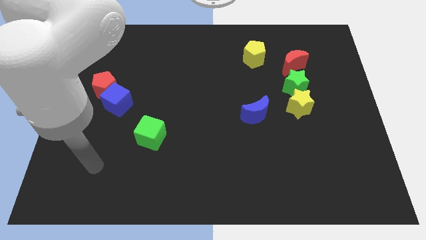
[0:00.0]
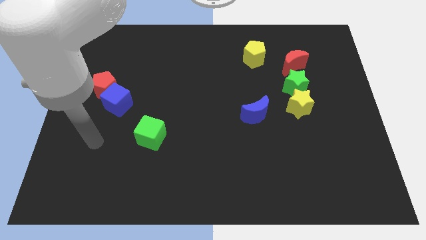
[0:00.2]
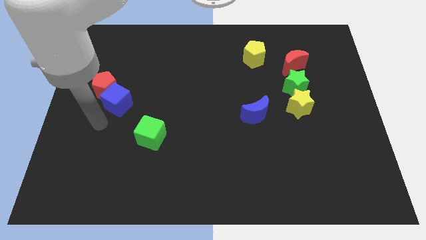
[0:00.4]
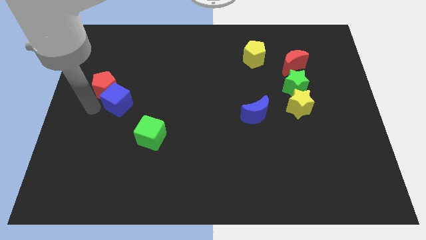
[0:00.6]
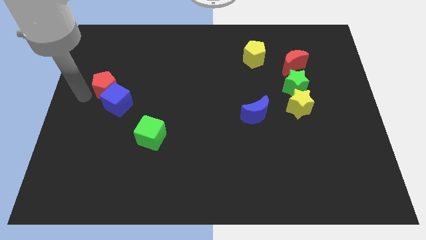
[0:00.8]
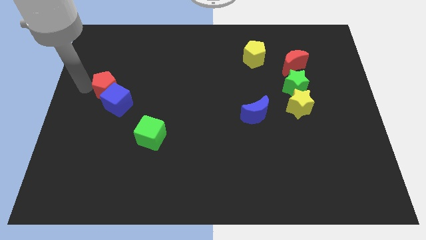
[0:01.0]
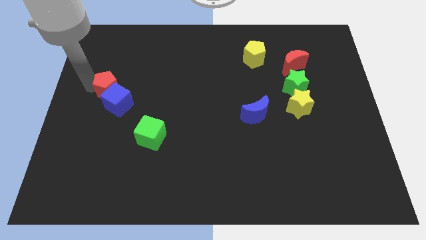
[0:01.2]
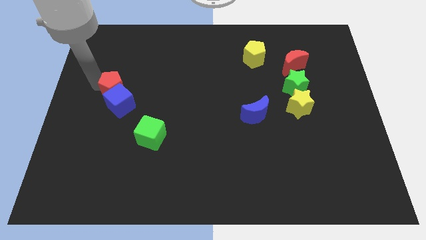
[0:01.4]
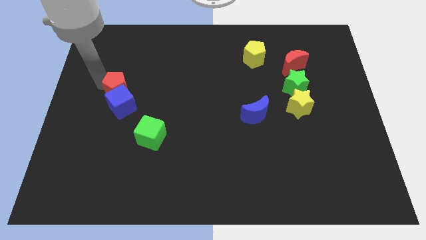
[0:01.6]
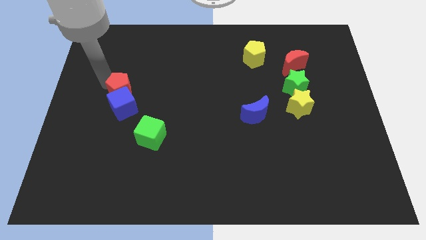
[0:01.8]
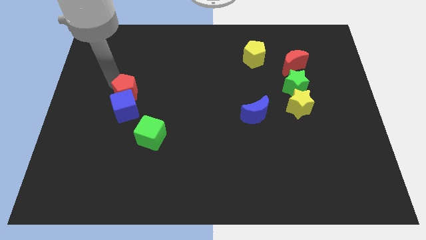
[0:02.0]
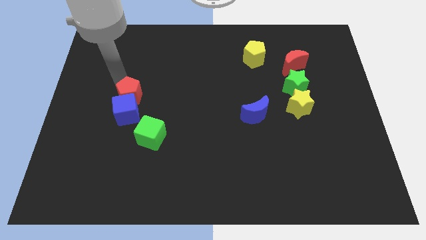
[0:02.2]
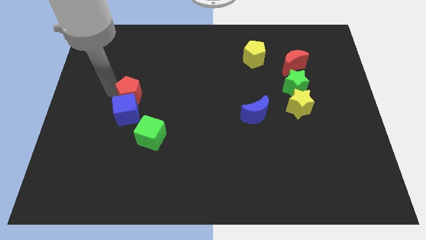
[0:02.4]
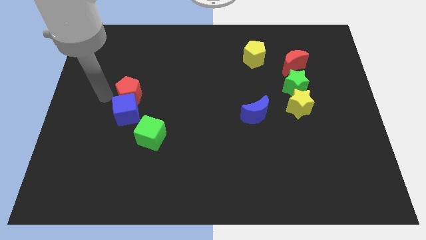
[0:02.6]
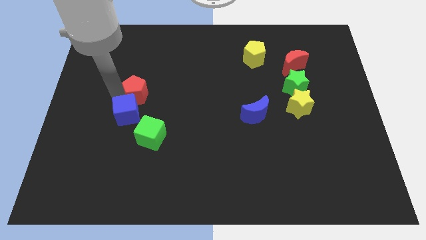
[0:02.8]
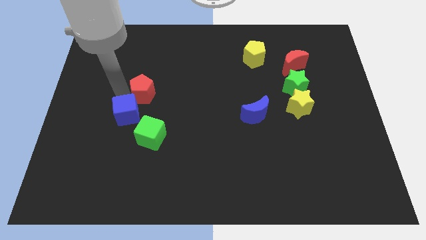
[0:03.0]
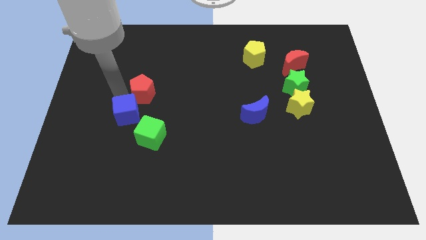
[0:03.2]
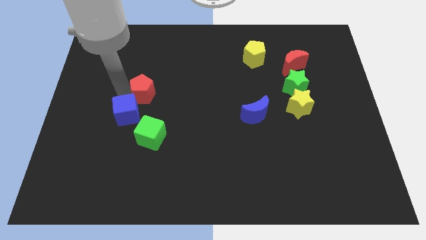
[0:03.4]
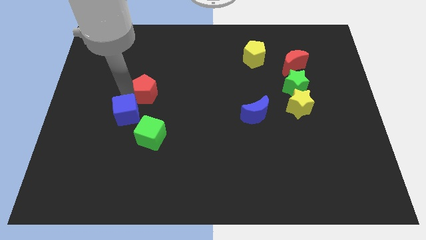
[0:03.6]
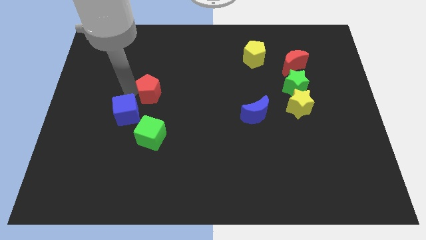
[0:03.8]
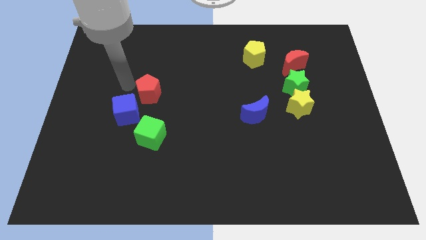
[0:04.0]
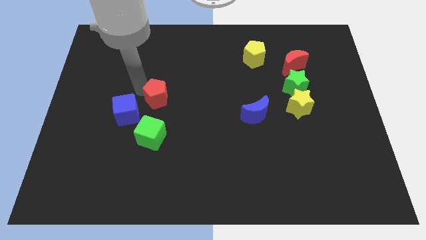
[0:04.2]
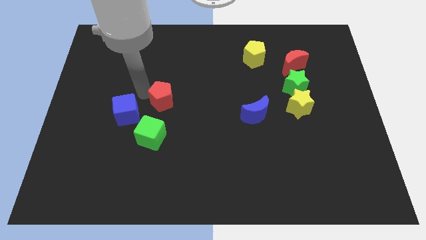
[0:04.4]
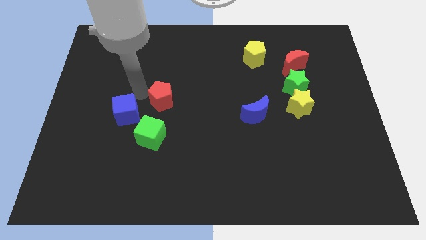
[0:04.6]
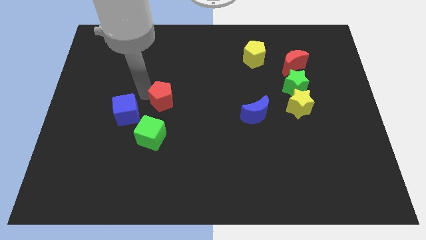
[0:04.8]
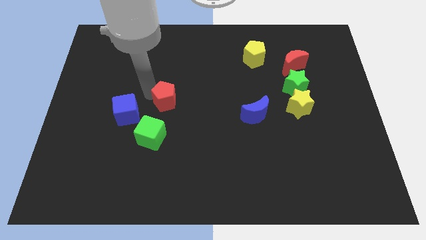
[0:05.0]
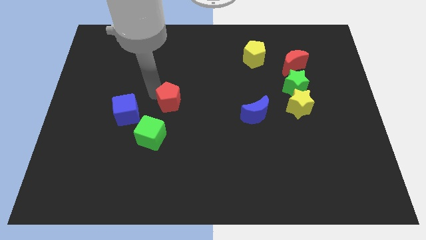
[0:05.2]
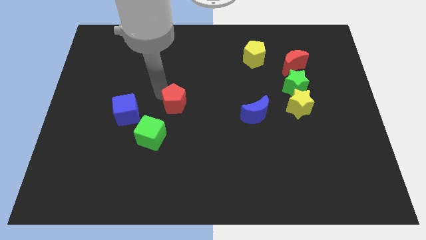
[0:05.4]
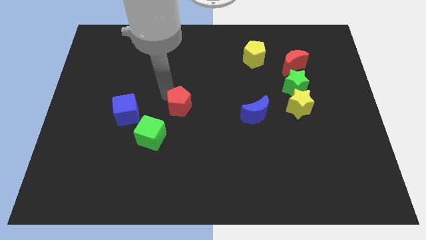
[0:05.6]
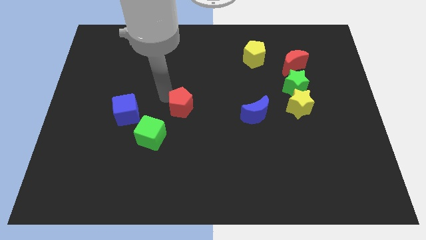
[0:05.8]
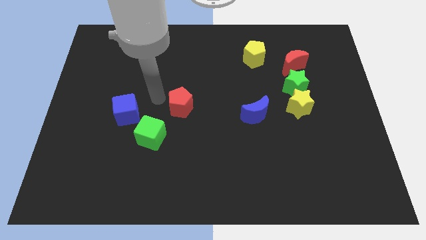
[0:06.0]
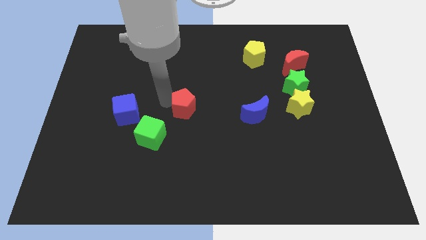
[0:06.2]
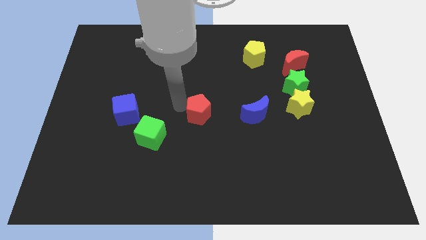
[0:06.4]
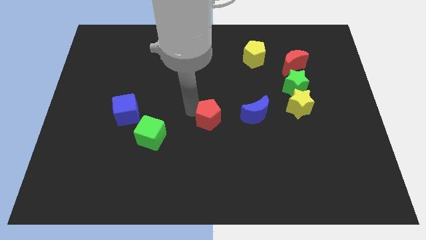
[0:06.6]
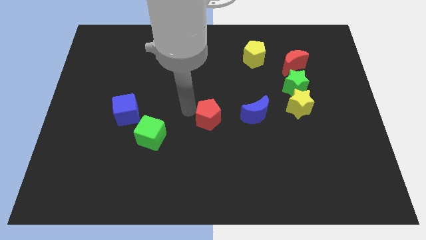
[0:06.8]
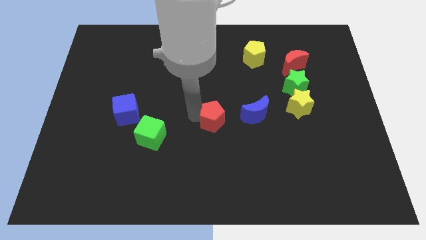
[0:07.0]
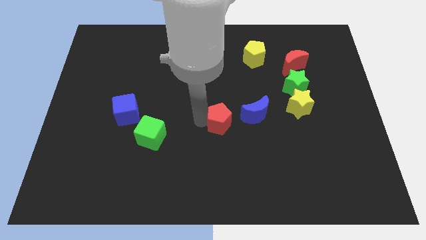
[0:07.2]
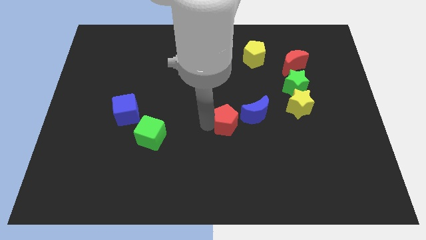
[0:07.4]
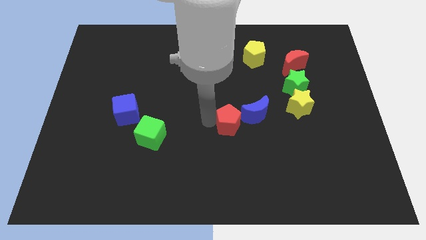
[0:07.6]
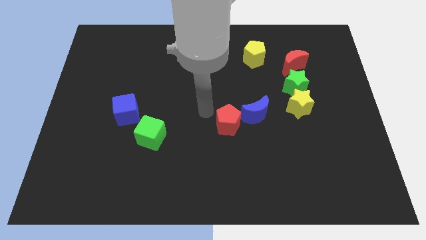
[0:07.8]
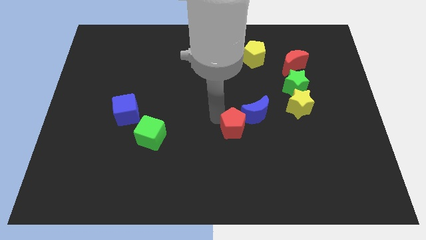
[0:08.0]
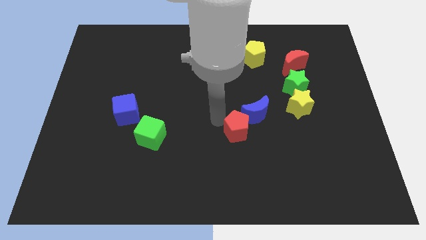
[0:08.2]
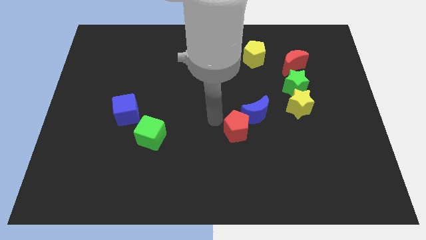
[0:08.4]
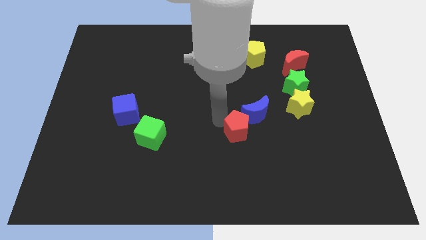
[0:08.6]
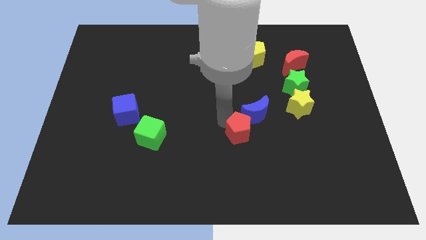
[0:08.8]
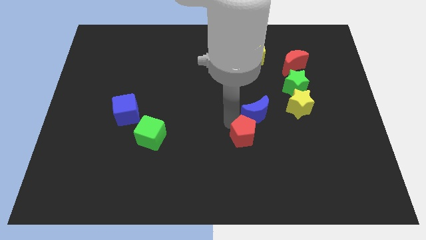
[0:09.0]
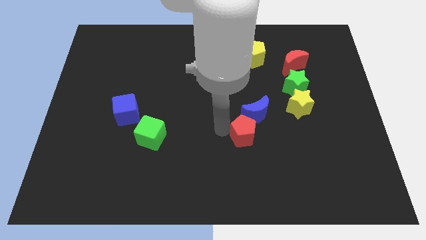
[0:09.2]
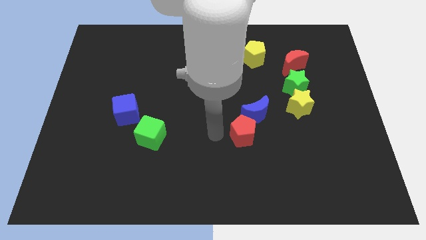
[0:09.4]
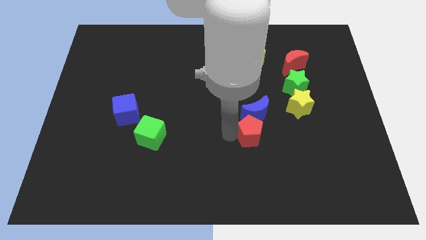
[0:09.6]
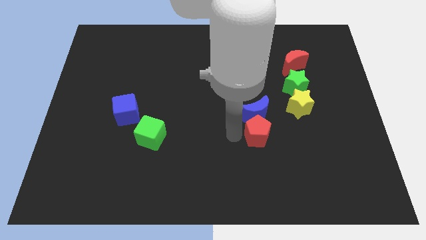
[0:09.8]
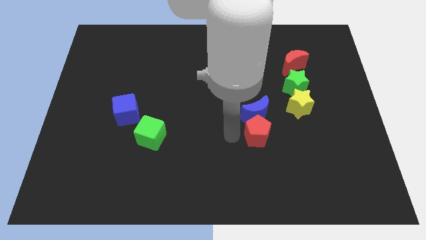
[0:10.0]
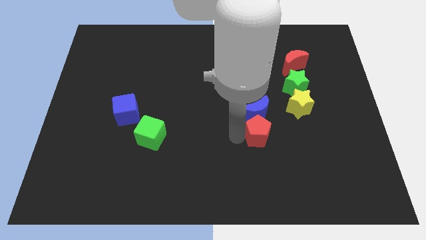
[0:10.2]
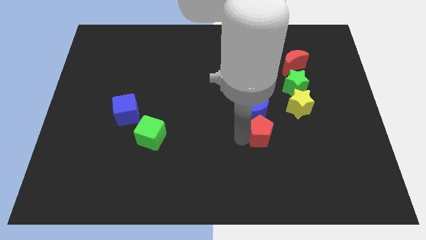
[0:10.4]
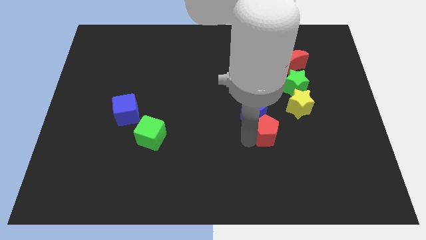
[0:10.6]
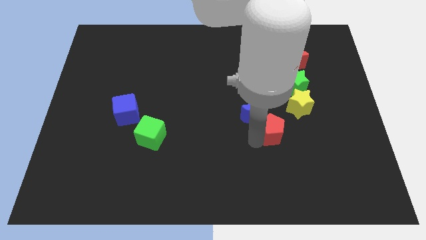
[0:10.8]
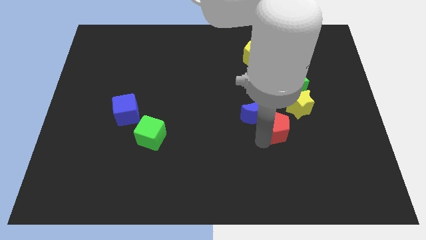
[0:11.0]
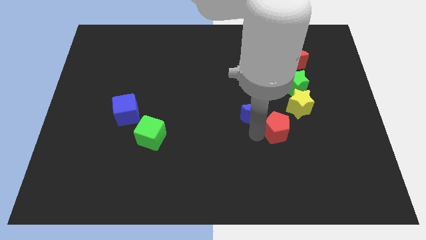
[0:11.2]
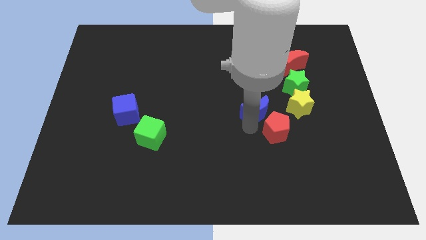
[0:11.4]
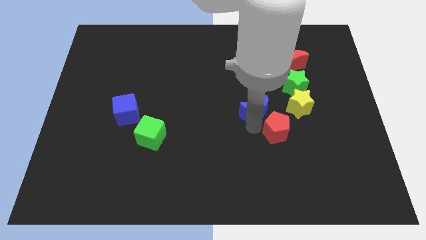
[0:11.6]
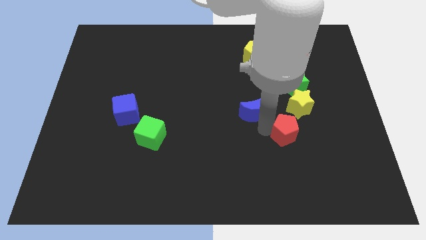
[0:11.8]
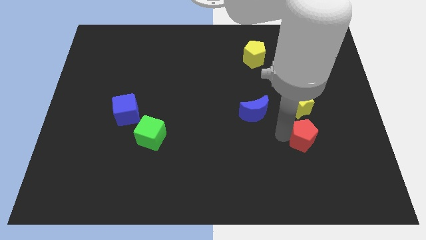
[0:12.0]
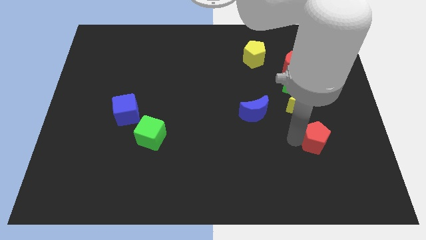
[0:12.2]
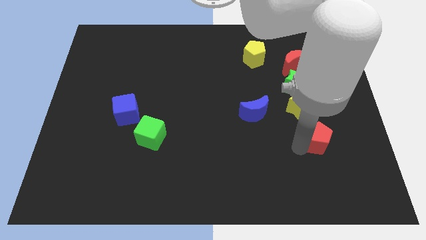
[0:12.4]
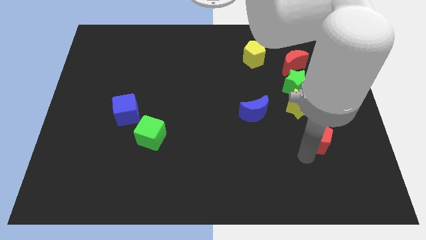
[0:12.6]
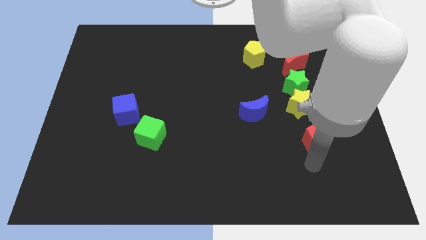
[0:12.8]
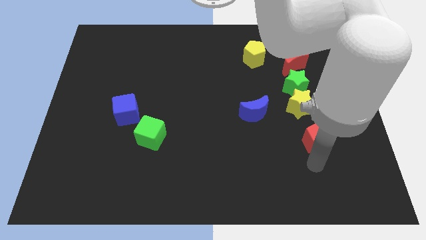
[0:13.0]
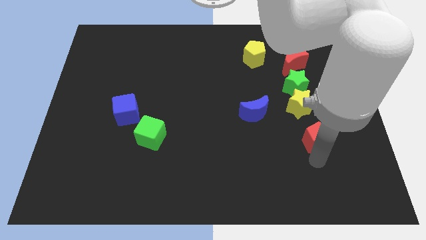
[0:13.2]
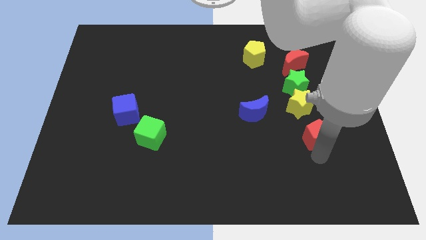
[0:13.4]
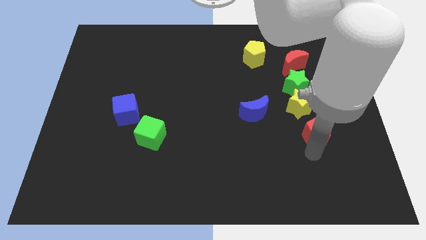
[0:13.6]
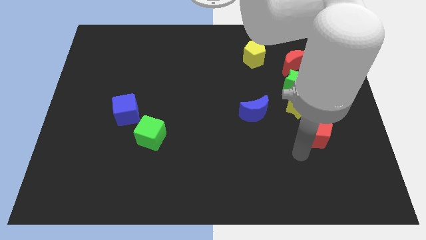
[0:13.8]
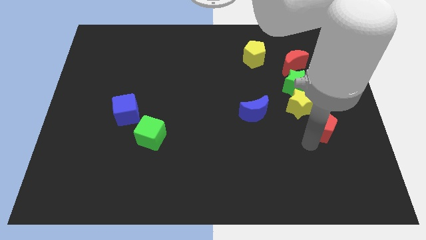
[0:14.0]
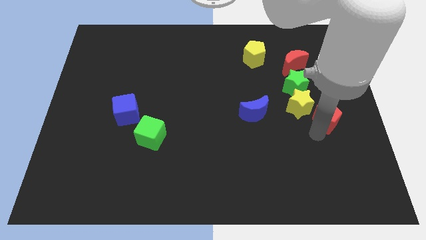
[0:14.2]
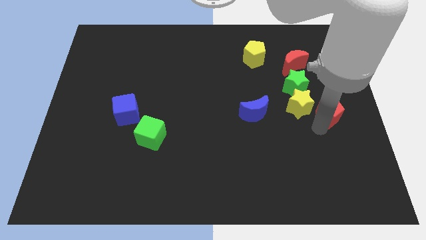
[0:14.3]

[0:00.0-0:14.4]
move the red pentagon to the center right
